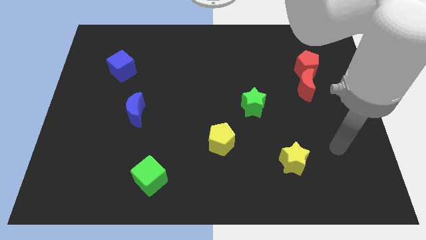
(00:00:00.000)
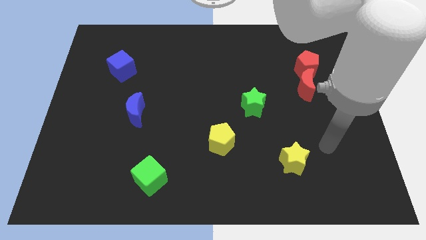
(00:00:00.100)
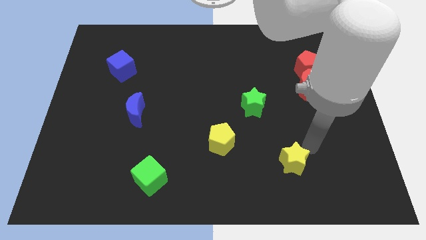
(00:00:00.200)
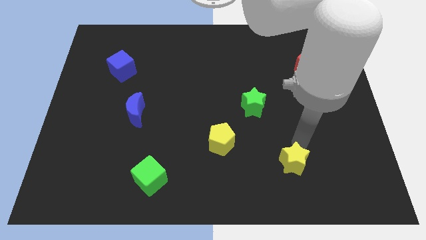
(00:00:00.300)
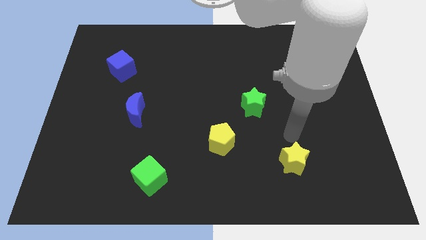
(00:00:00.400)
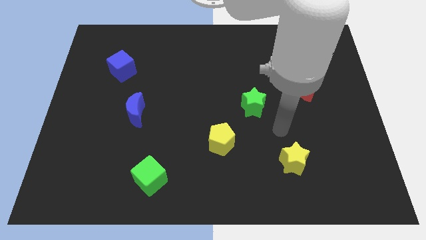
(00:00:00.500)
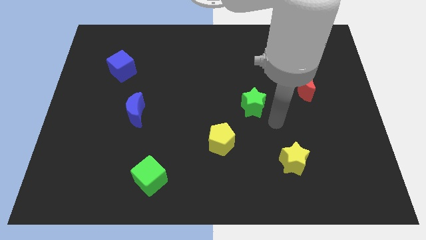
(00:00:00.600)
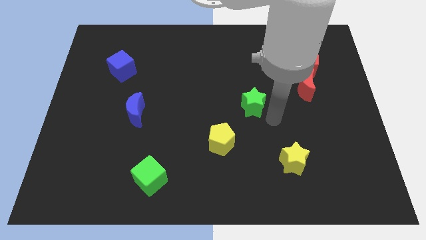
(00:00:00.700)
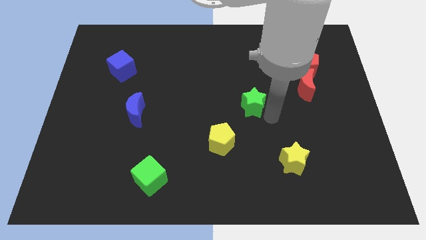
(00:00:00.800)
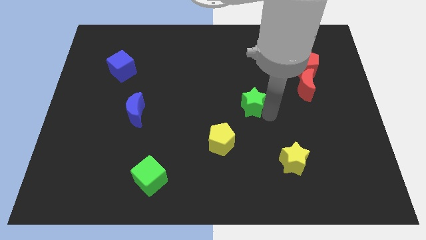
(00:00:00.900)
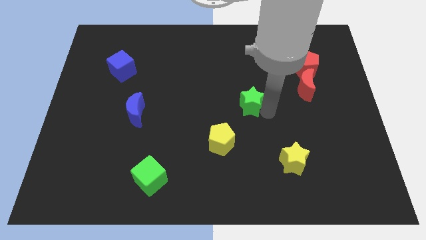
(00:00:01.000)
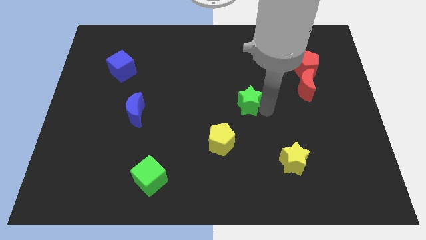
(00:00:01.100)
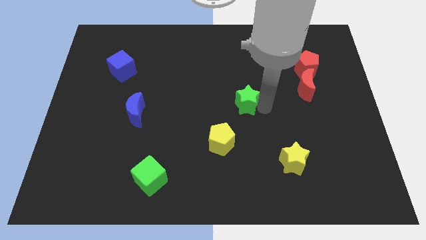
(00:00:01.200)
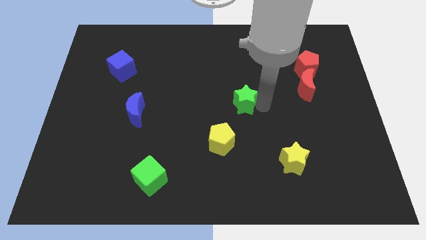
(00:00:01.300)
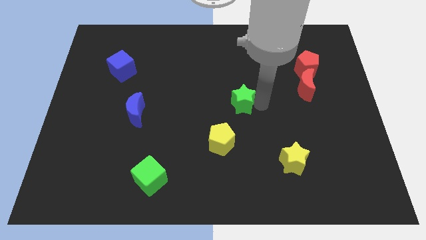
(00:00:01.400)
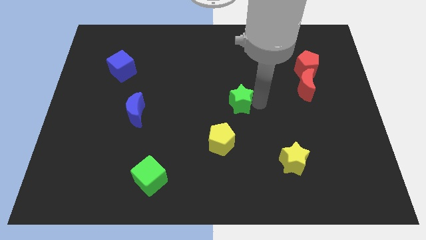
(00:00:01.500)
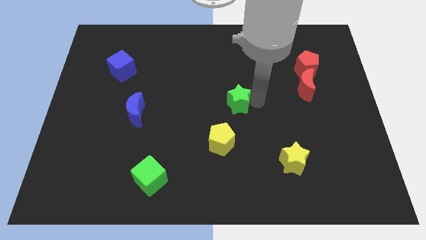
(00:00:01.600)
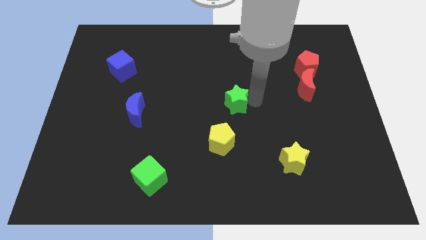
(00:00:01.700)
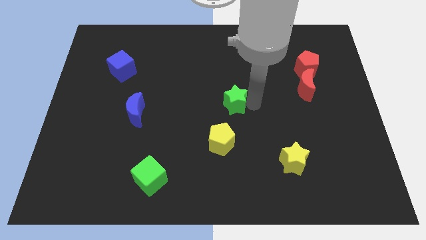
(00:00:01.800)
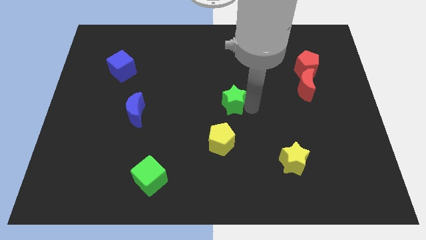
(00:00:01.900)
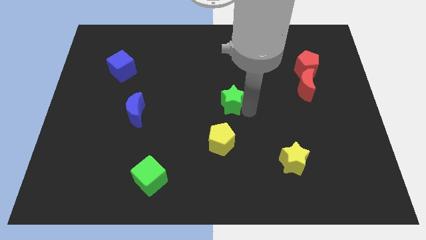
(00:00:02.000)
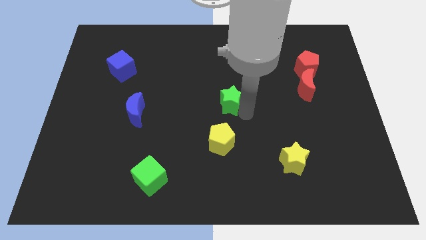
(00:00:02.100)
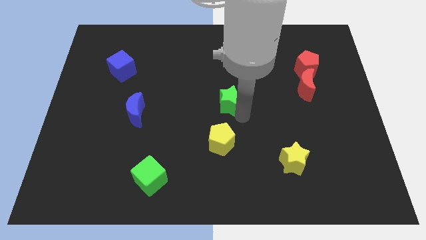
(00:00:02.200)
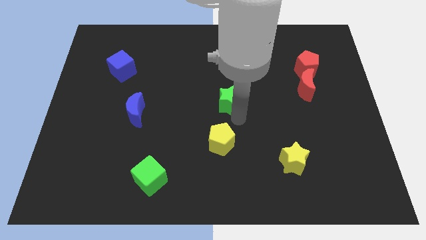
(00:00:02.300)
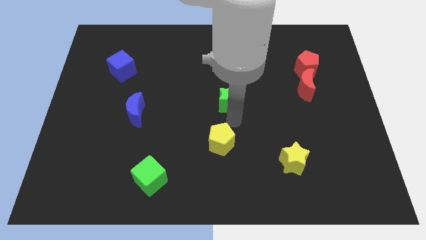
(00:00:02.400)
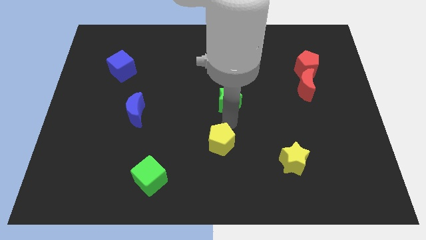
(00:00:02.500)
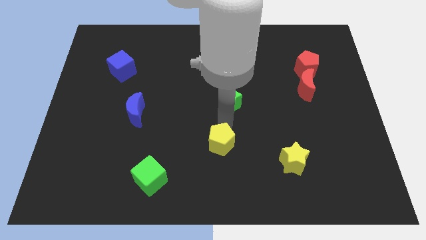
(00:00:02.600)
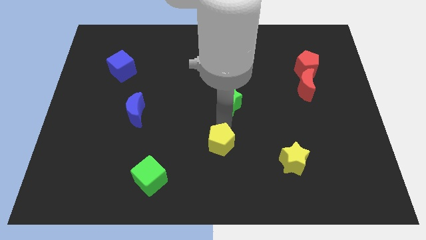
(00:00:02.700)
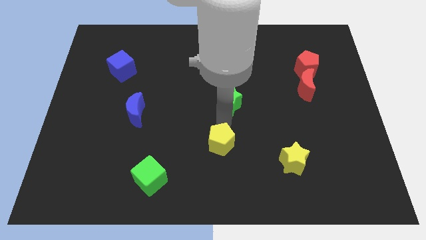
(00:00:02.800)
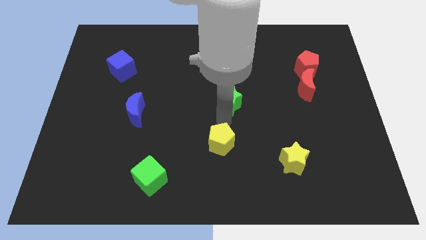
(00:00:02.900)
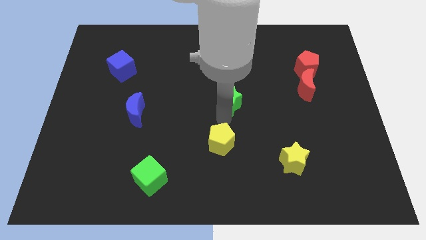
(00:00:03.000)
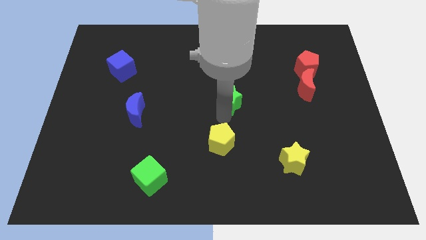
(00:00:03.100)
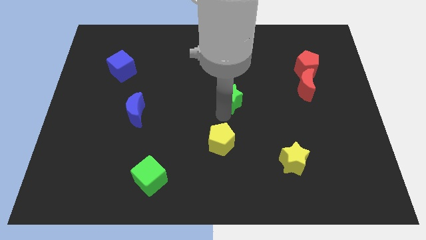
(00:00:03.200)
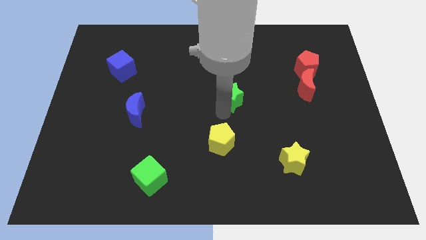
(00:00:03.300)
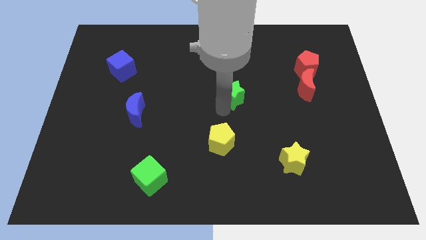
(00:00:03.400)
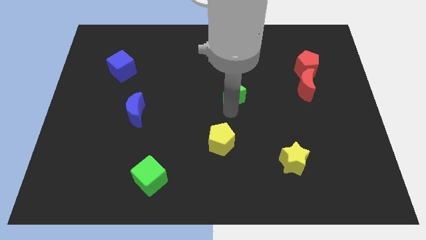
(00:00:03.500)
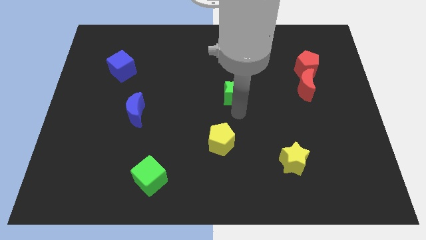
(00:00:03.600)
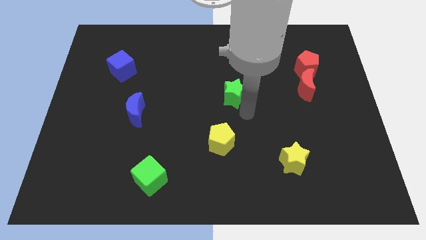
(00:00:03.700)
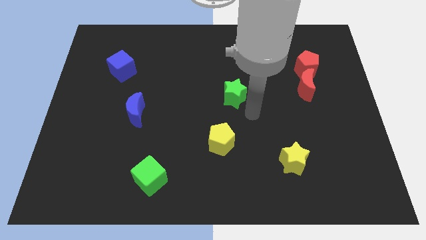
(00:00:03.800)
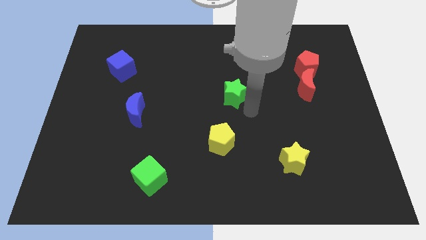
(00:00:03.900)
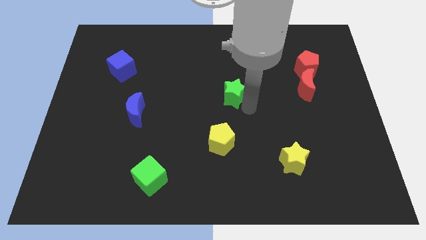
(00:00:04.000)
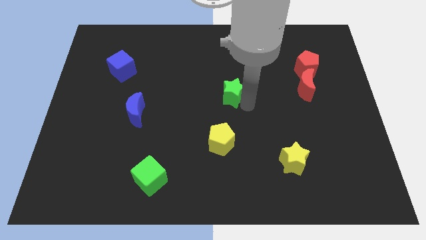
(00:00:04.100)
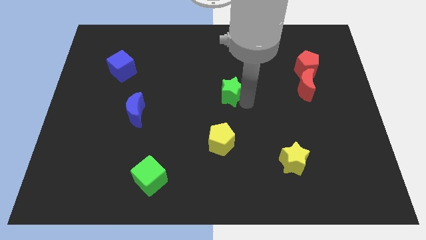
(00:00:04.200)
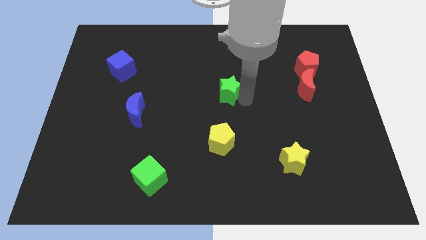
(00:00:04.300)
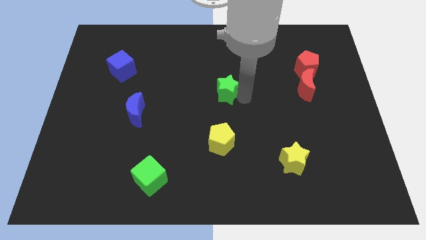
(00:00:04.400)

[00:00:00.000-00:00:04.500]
slide the green star slightly upwards and then left

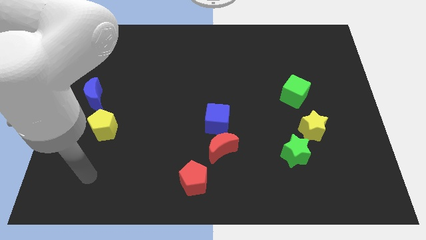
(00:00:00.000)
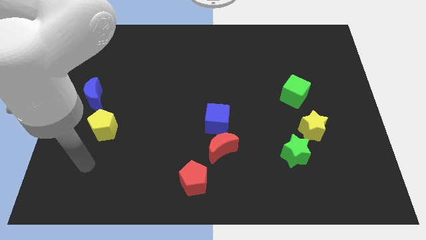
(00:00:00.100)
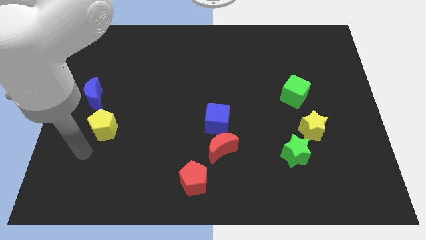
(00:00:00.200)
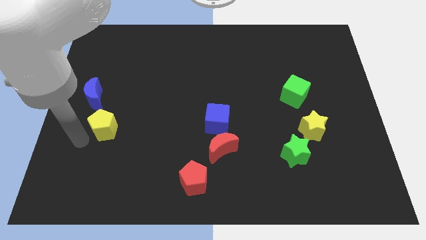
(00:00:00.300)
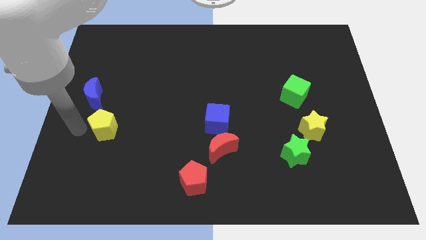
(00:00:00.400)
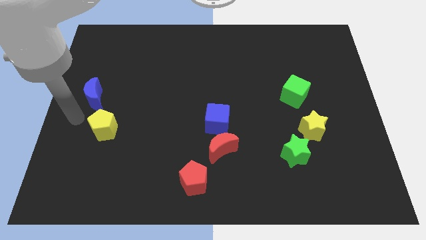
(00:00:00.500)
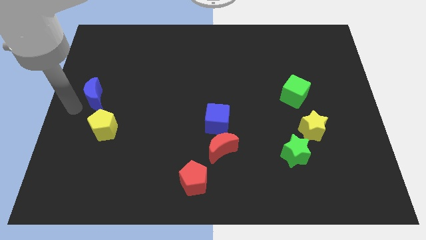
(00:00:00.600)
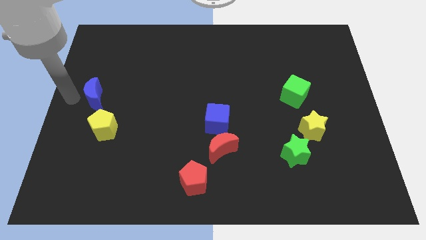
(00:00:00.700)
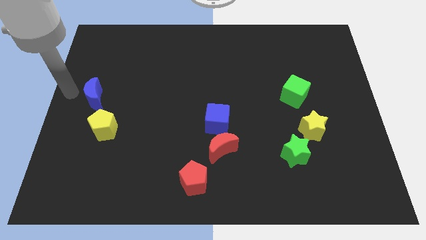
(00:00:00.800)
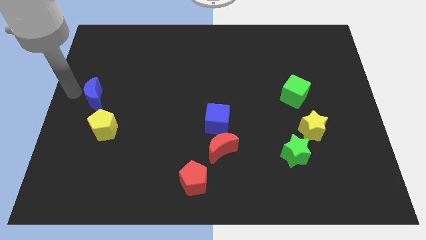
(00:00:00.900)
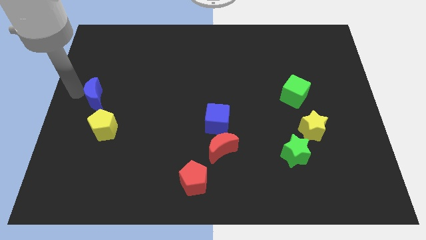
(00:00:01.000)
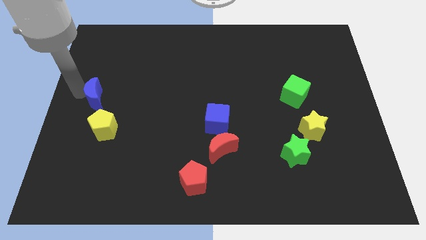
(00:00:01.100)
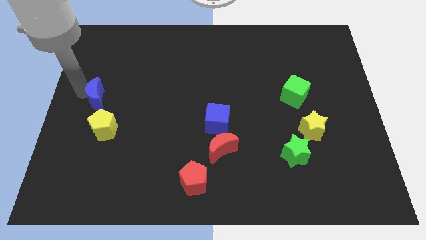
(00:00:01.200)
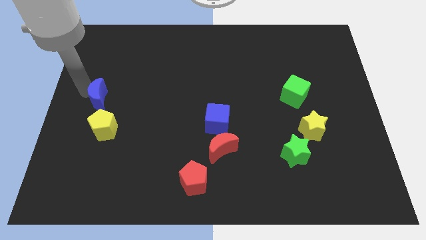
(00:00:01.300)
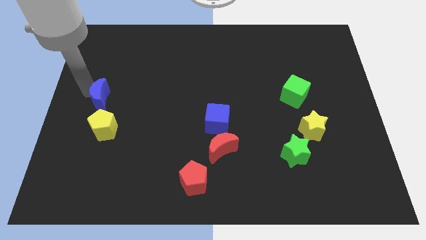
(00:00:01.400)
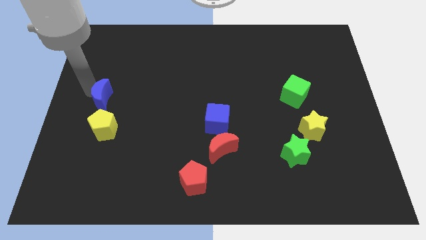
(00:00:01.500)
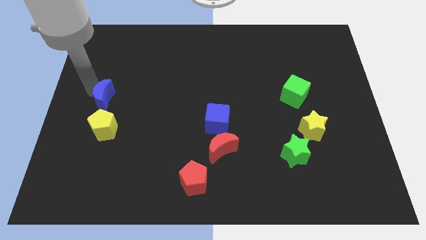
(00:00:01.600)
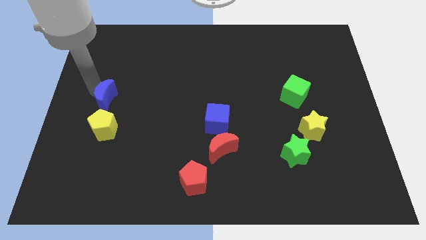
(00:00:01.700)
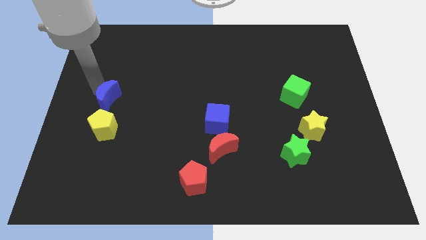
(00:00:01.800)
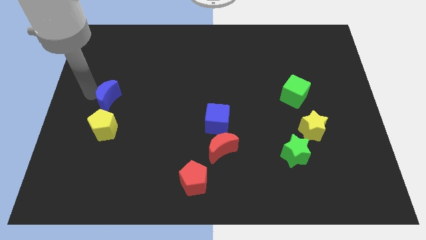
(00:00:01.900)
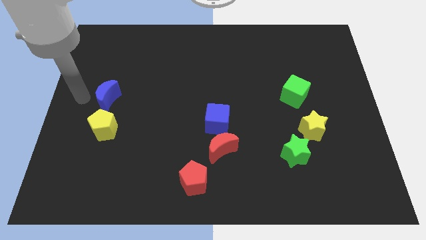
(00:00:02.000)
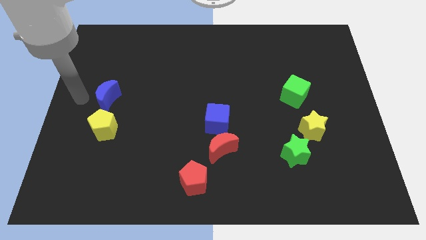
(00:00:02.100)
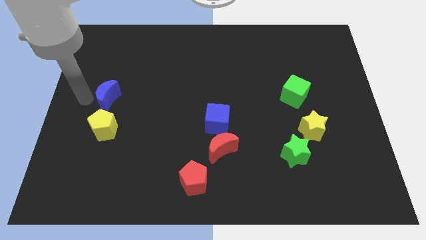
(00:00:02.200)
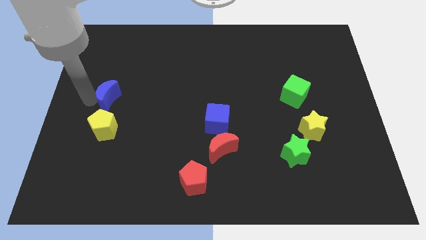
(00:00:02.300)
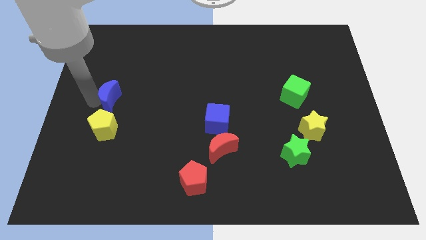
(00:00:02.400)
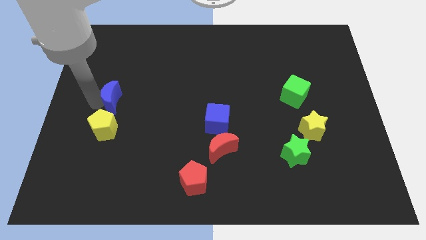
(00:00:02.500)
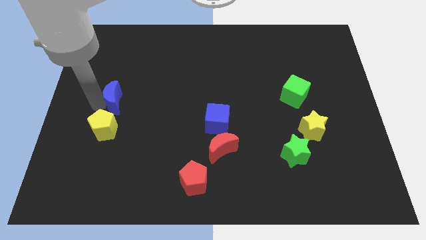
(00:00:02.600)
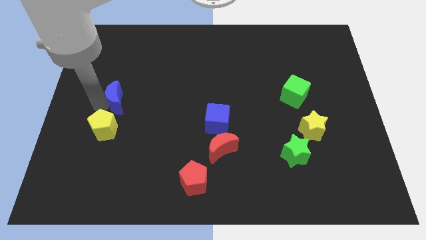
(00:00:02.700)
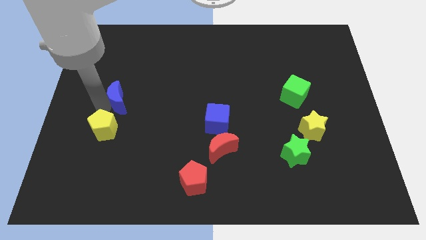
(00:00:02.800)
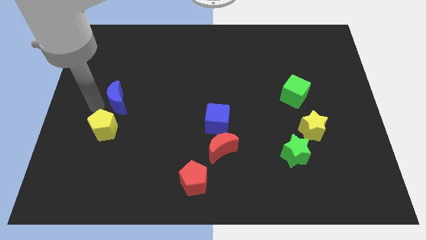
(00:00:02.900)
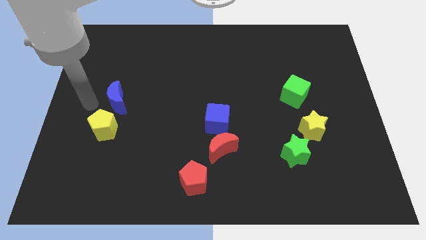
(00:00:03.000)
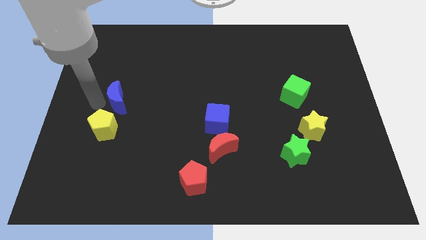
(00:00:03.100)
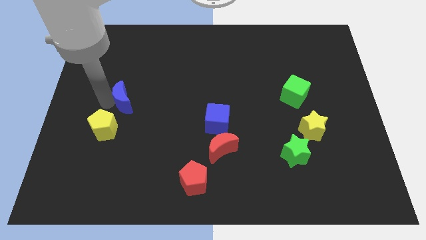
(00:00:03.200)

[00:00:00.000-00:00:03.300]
slide the blue moon a little bit to the right
